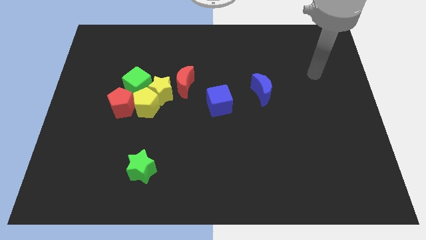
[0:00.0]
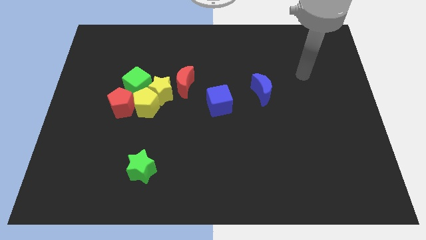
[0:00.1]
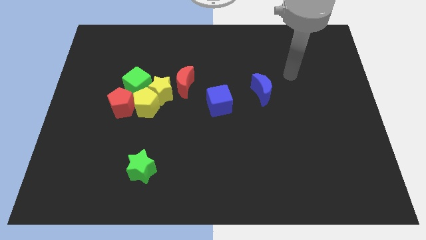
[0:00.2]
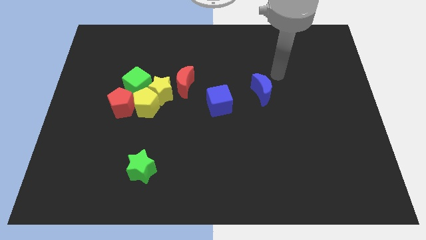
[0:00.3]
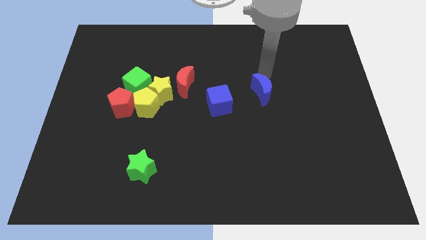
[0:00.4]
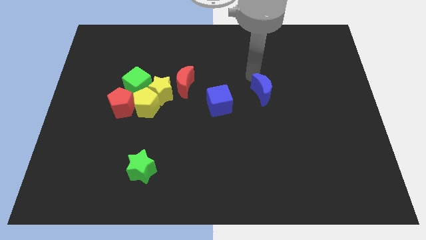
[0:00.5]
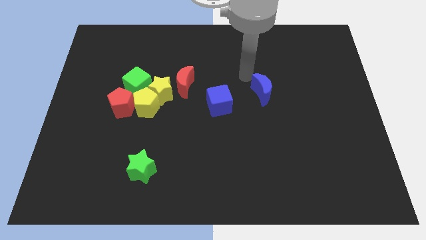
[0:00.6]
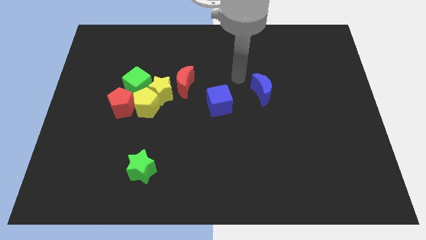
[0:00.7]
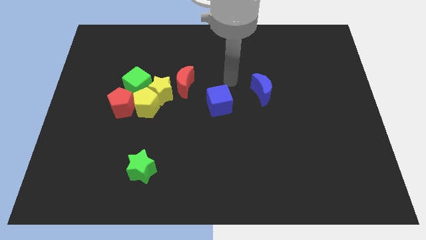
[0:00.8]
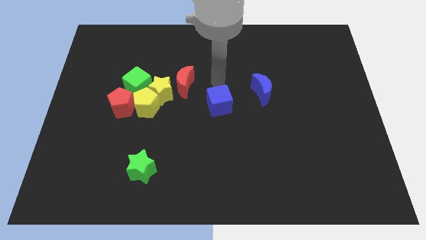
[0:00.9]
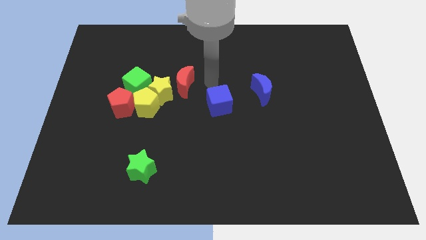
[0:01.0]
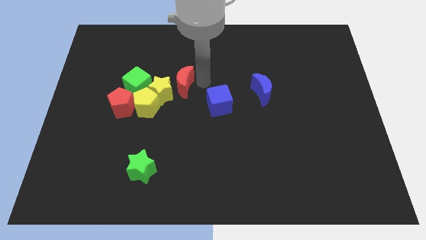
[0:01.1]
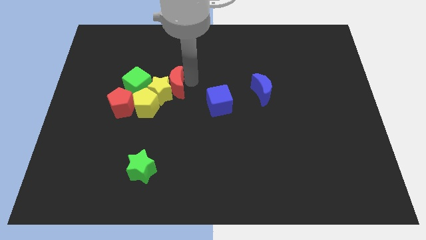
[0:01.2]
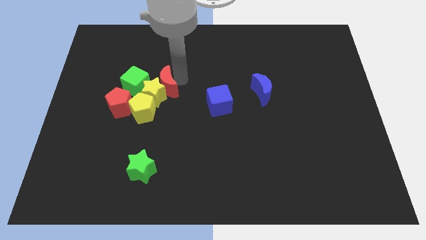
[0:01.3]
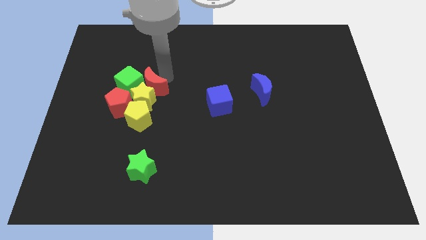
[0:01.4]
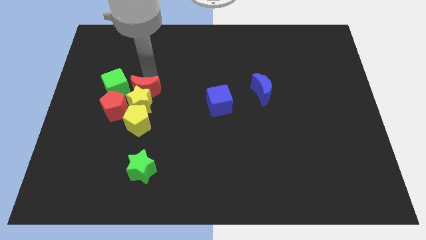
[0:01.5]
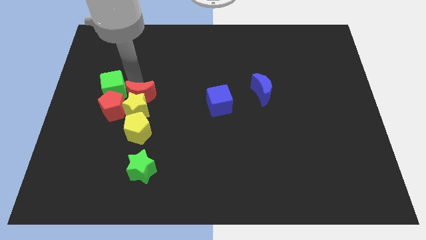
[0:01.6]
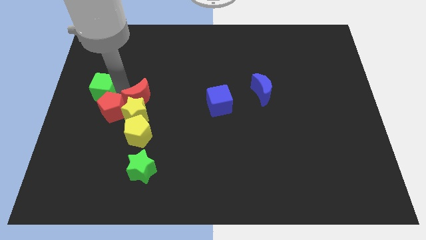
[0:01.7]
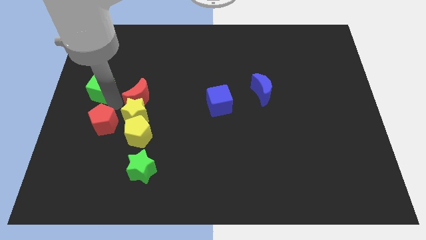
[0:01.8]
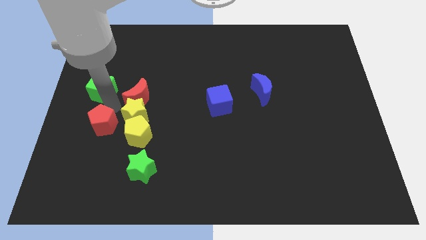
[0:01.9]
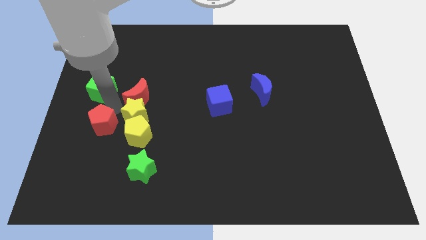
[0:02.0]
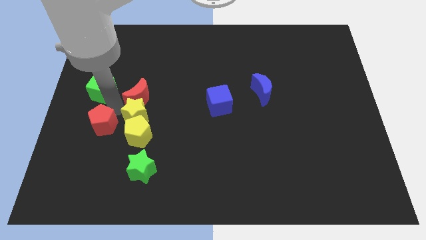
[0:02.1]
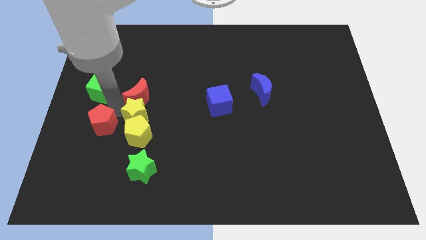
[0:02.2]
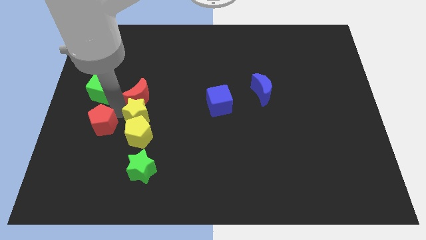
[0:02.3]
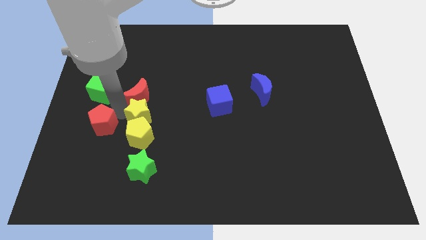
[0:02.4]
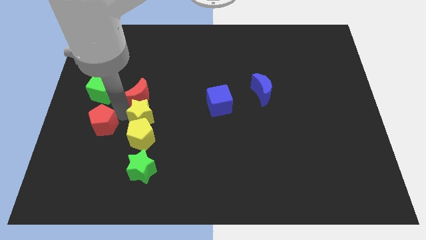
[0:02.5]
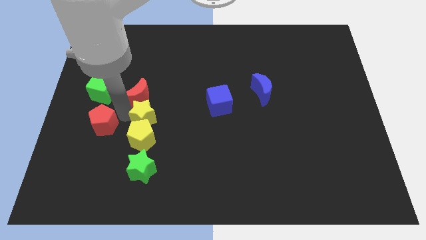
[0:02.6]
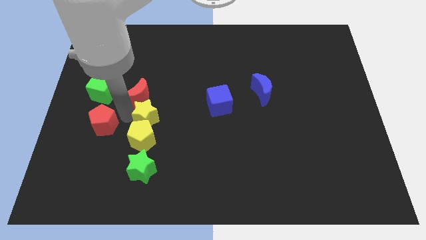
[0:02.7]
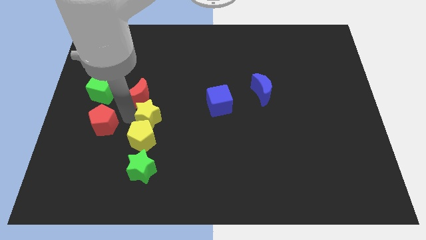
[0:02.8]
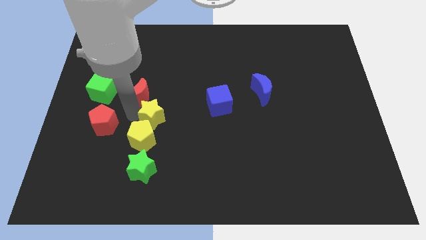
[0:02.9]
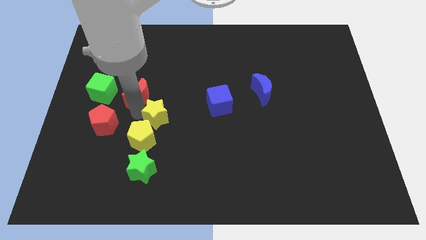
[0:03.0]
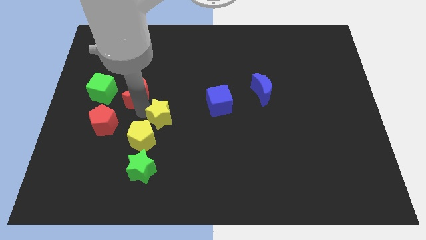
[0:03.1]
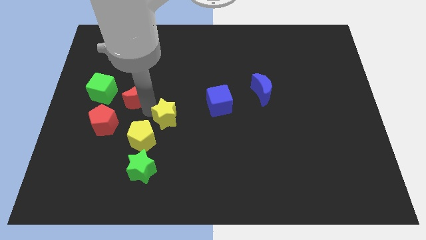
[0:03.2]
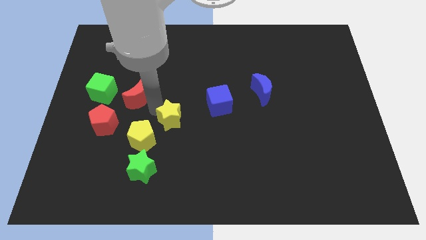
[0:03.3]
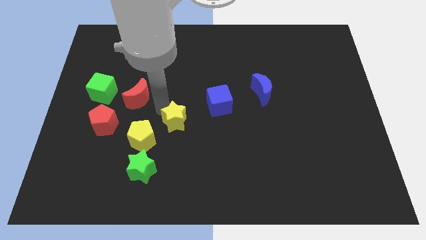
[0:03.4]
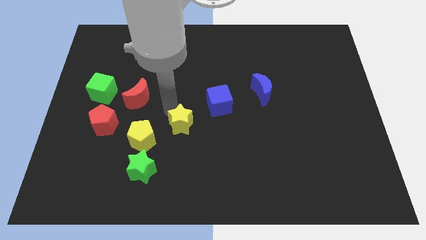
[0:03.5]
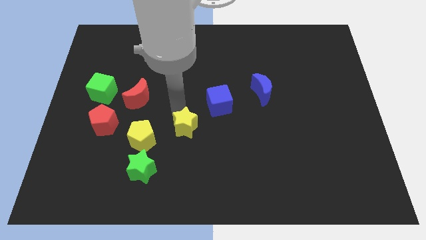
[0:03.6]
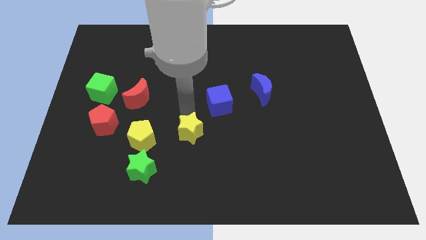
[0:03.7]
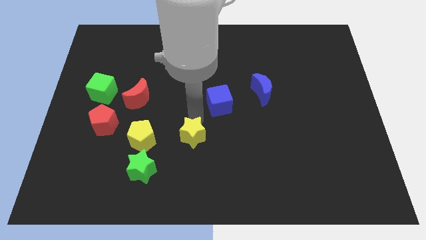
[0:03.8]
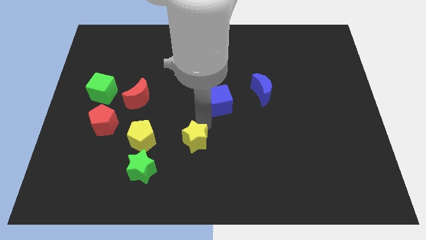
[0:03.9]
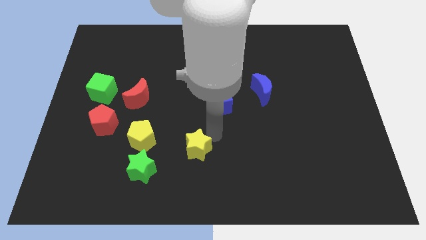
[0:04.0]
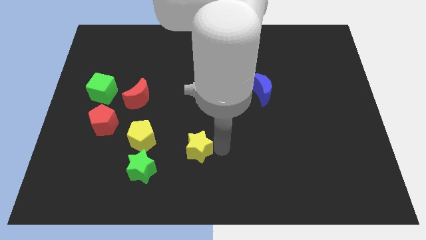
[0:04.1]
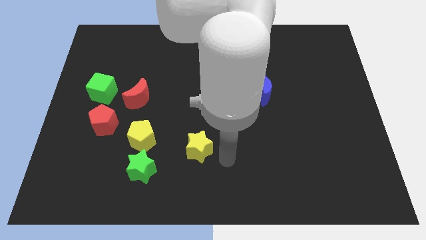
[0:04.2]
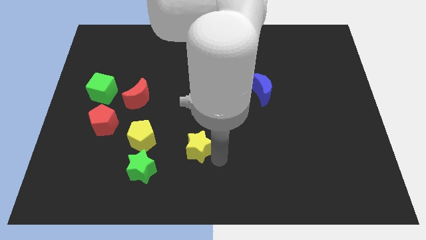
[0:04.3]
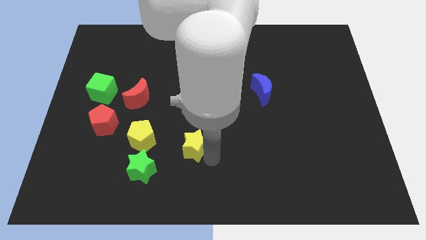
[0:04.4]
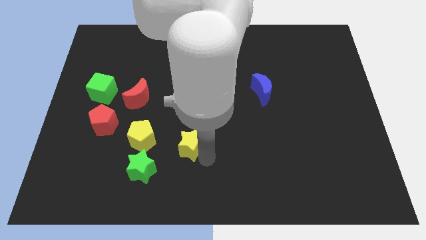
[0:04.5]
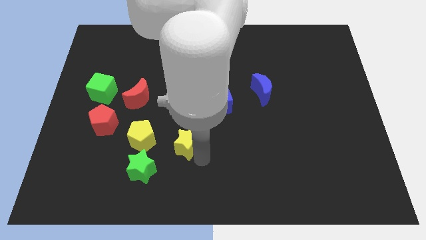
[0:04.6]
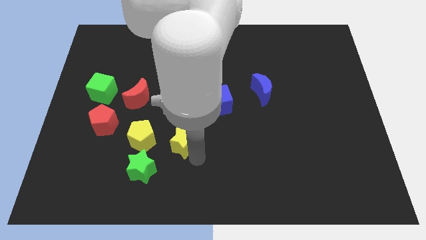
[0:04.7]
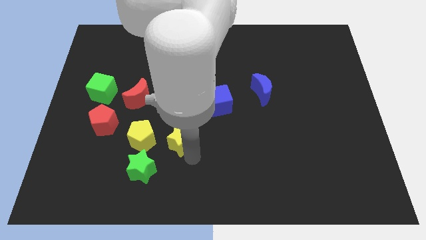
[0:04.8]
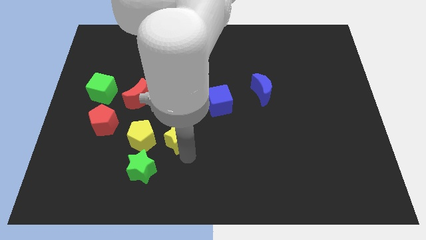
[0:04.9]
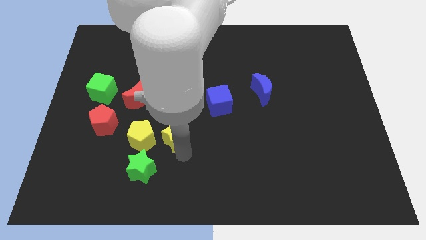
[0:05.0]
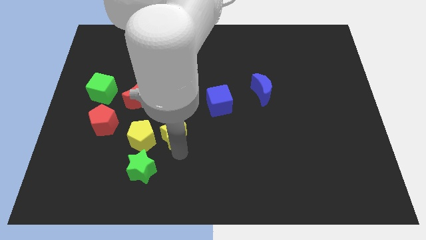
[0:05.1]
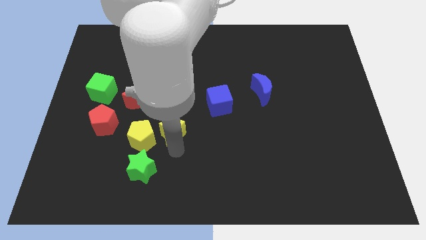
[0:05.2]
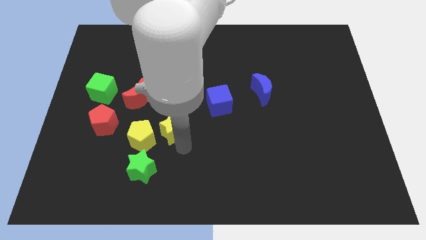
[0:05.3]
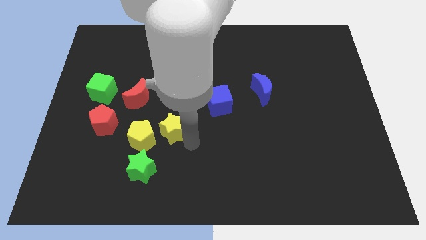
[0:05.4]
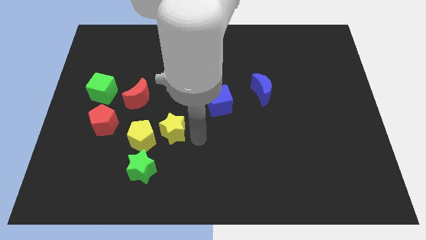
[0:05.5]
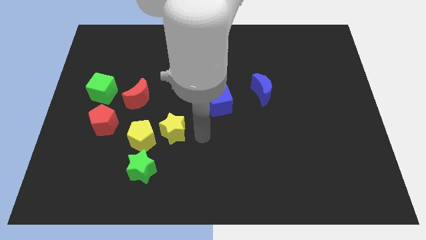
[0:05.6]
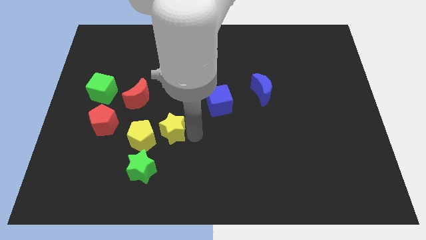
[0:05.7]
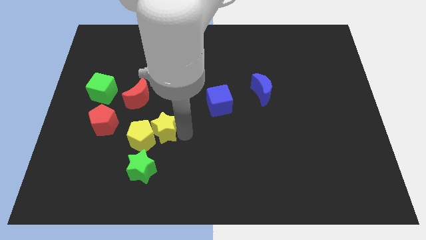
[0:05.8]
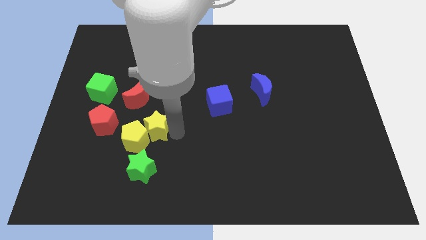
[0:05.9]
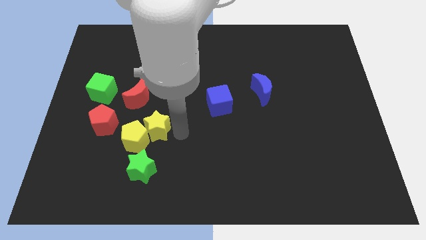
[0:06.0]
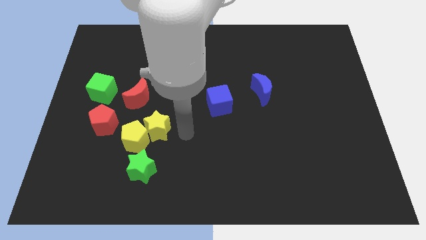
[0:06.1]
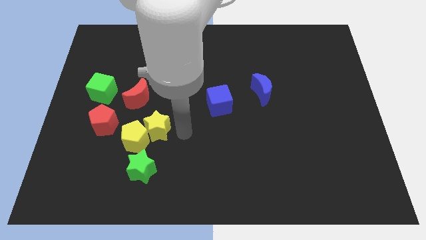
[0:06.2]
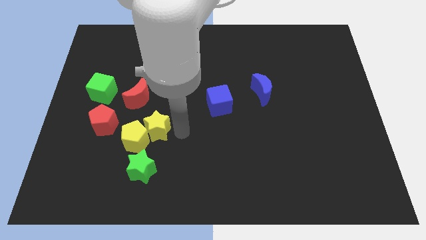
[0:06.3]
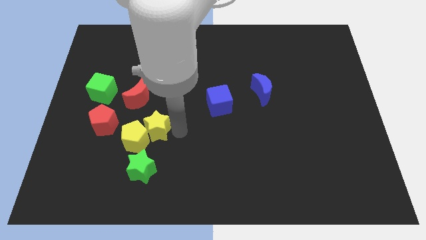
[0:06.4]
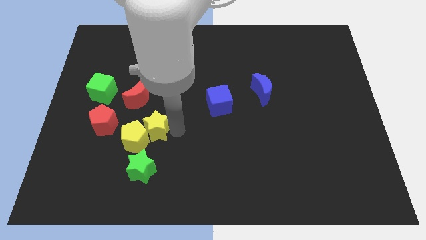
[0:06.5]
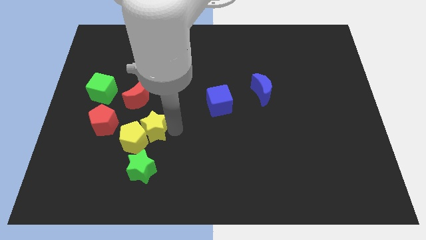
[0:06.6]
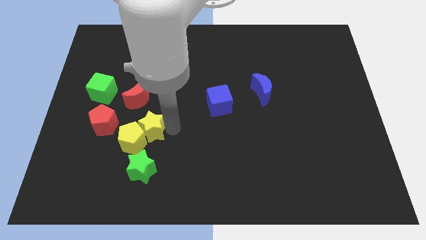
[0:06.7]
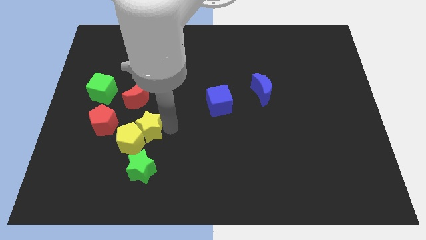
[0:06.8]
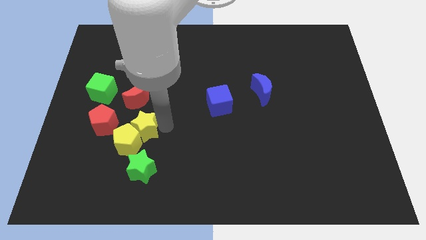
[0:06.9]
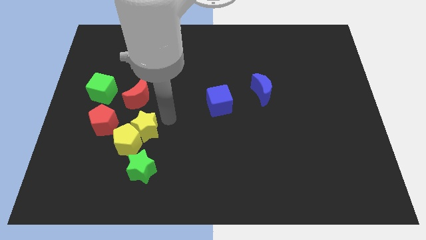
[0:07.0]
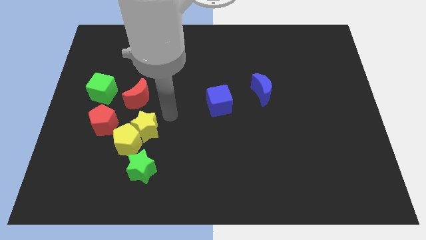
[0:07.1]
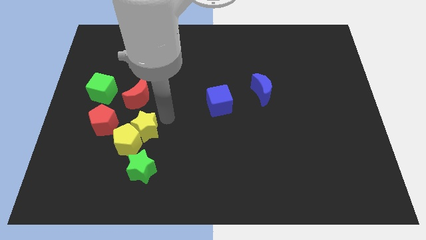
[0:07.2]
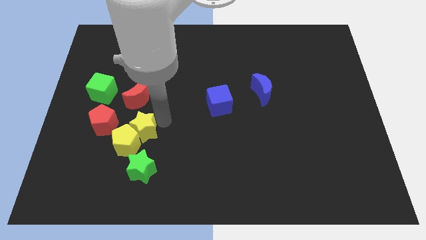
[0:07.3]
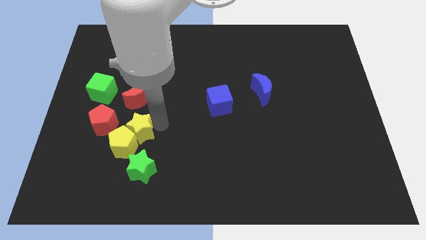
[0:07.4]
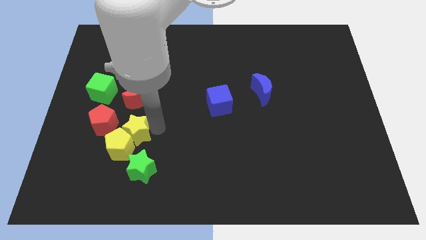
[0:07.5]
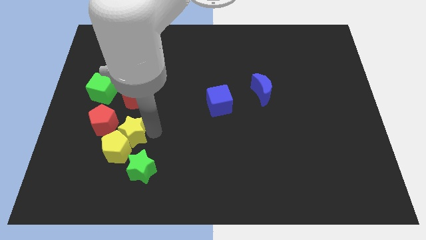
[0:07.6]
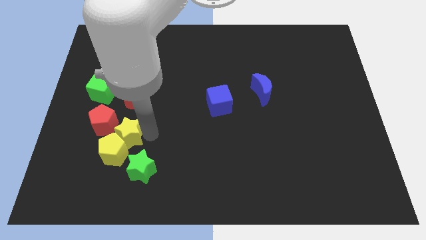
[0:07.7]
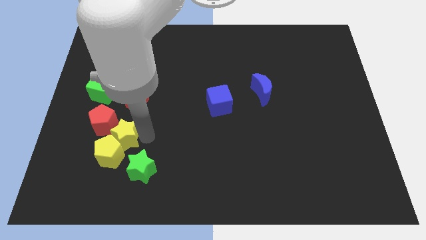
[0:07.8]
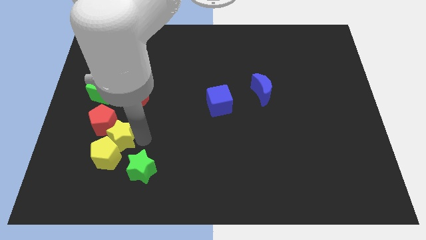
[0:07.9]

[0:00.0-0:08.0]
slide the yellow star below the red pentagon

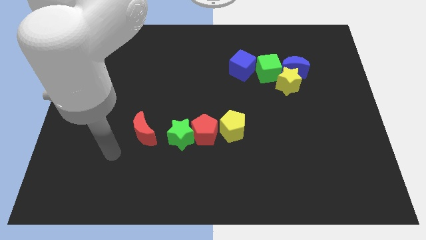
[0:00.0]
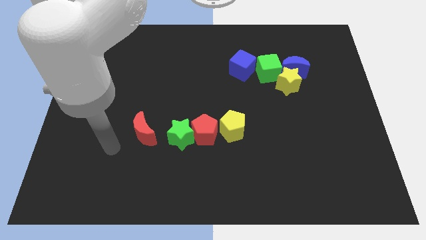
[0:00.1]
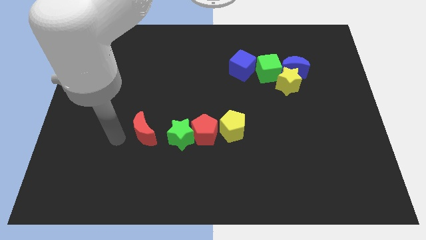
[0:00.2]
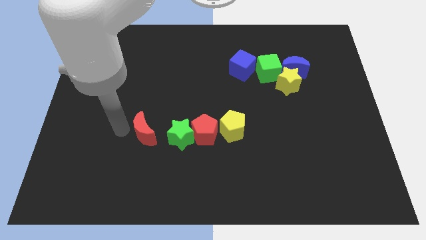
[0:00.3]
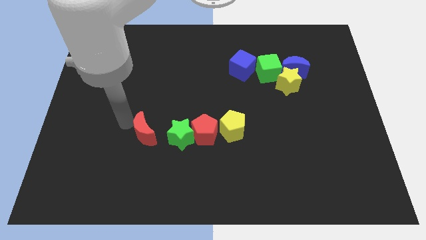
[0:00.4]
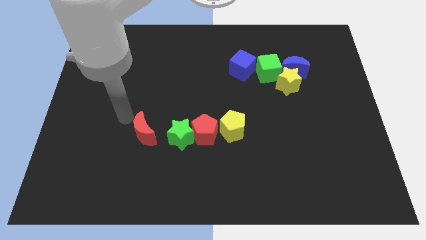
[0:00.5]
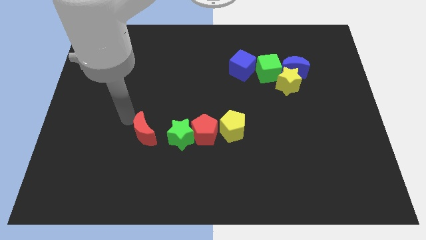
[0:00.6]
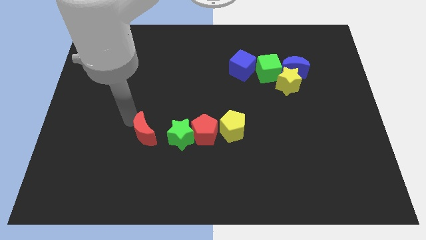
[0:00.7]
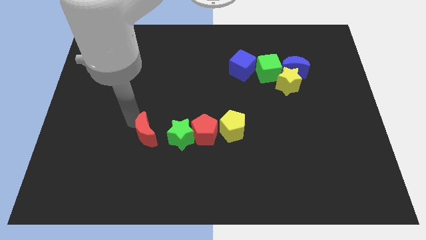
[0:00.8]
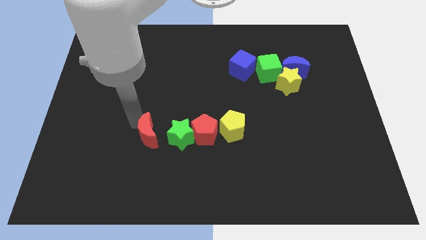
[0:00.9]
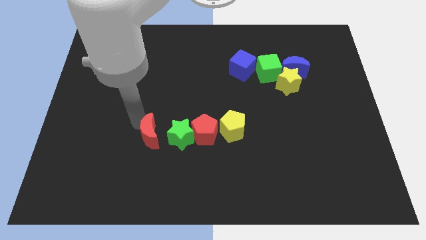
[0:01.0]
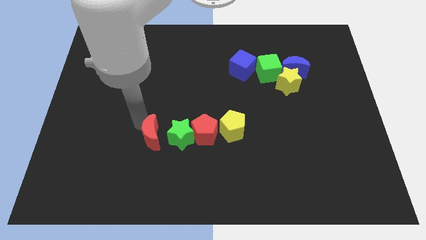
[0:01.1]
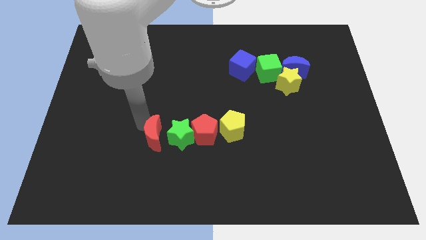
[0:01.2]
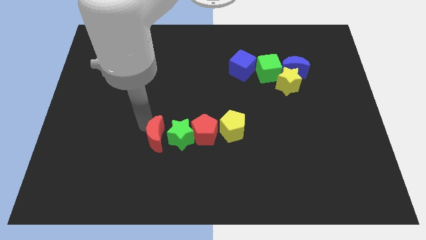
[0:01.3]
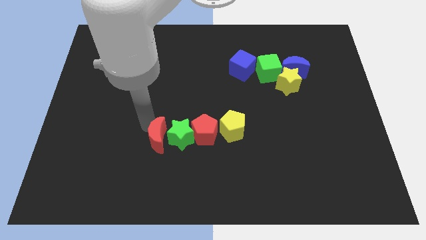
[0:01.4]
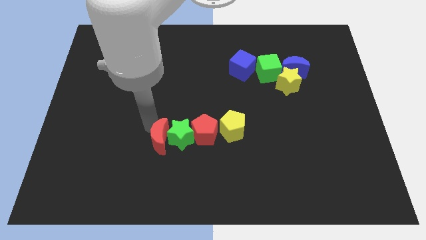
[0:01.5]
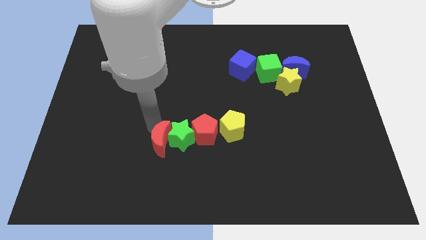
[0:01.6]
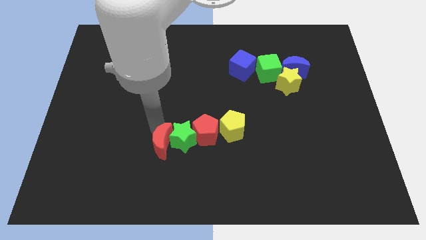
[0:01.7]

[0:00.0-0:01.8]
move the red moon diagonally down and to the left of the red pentagon
